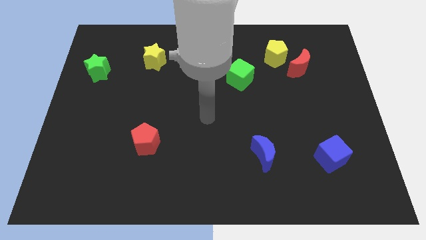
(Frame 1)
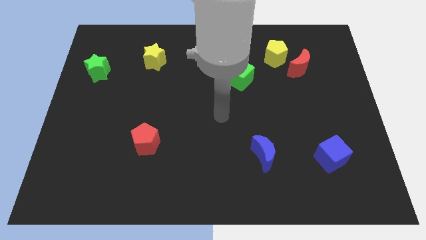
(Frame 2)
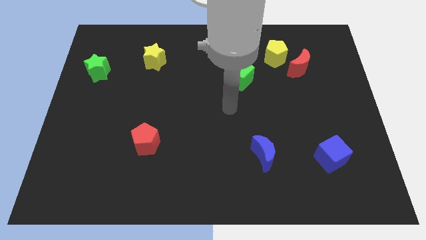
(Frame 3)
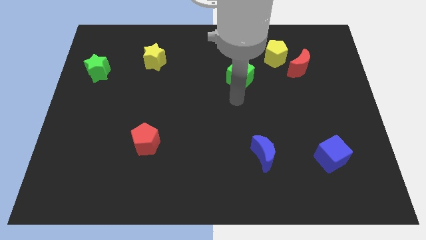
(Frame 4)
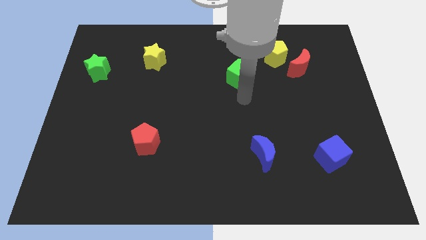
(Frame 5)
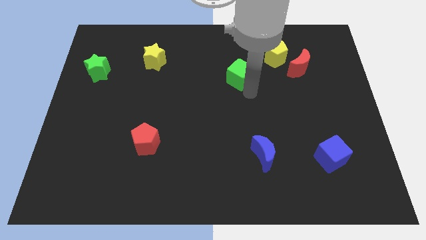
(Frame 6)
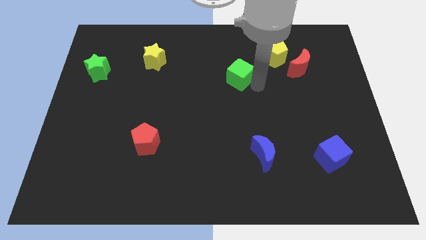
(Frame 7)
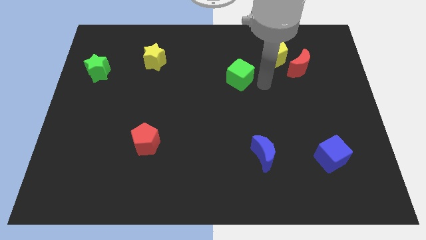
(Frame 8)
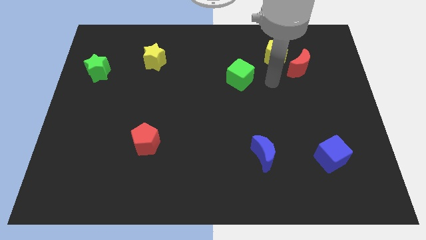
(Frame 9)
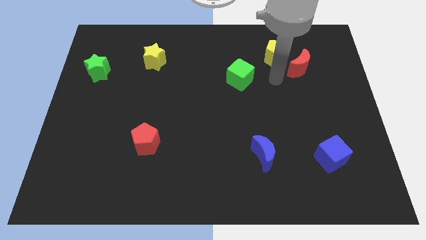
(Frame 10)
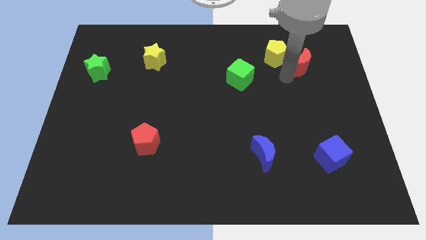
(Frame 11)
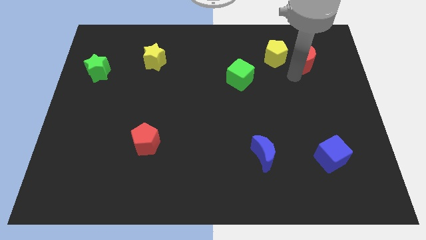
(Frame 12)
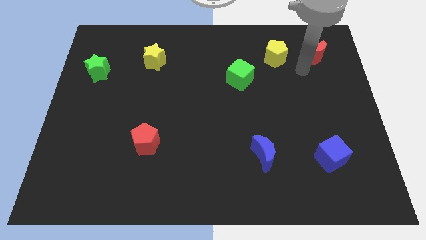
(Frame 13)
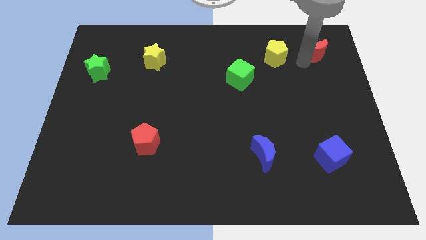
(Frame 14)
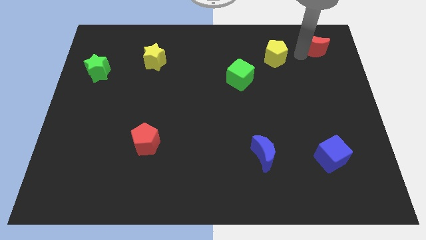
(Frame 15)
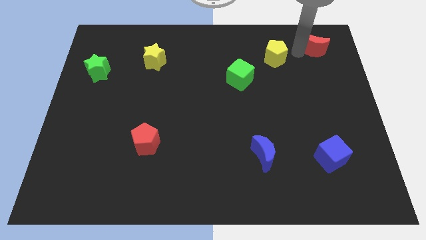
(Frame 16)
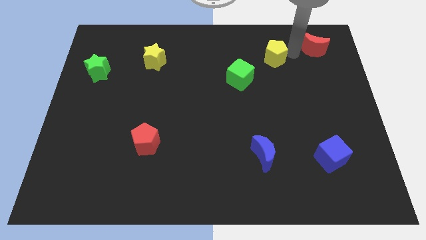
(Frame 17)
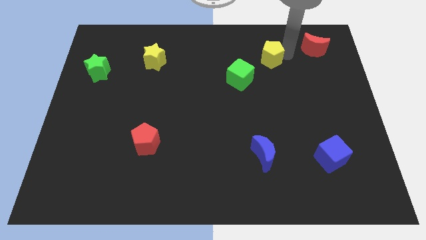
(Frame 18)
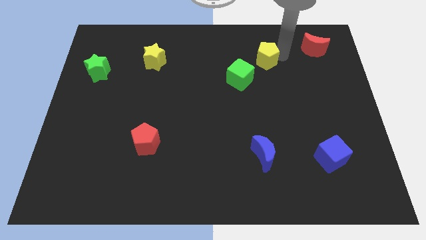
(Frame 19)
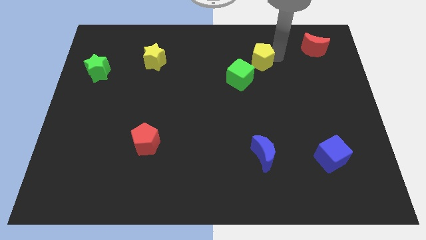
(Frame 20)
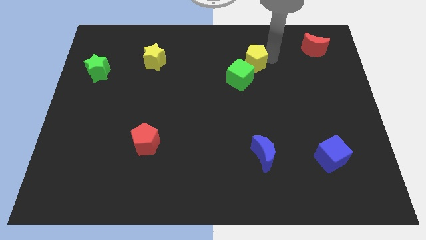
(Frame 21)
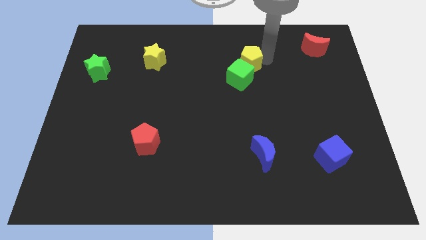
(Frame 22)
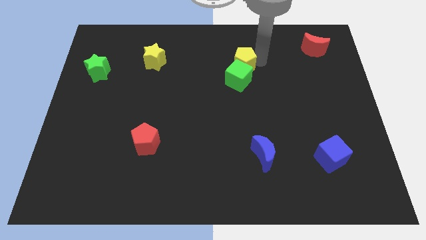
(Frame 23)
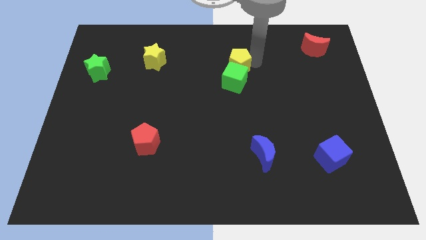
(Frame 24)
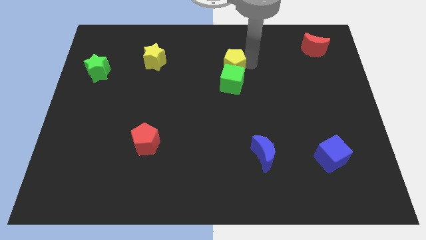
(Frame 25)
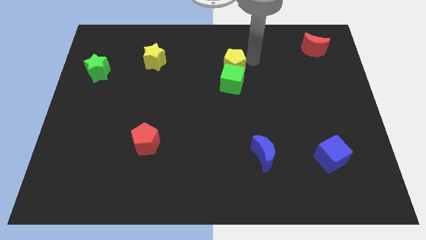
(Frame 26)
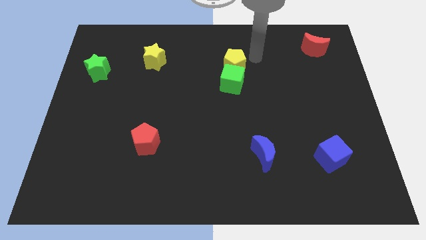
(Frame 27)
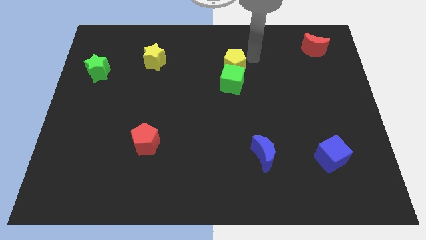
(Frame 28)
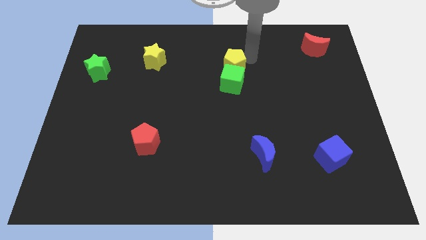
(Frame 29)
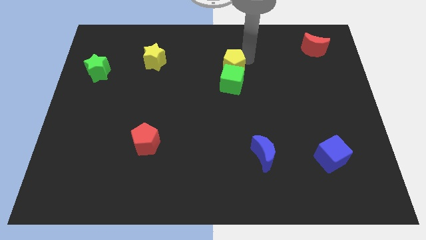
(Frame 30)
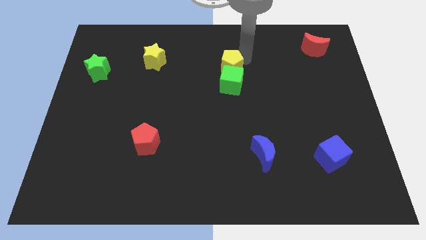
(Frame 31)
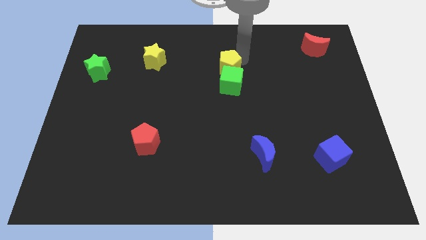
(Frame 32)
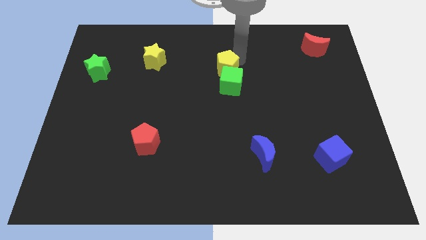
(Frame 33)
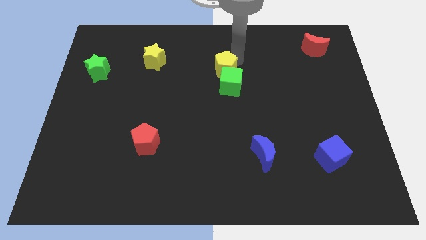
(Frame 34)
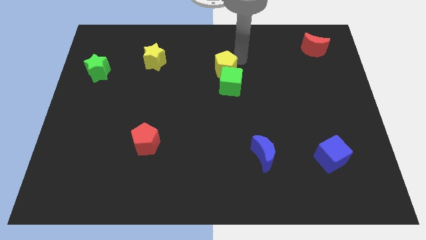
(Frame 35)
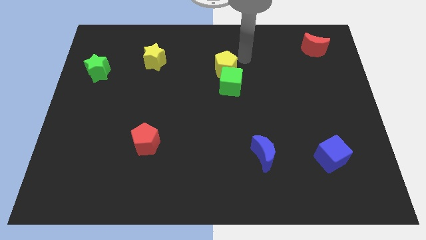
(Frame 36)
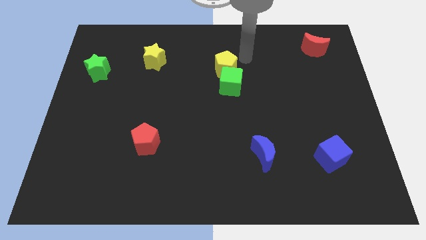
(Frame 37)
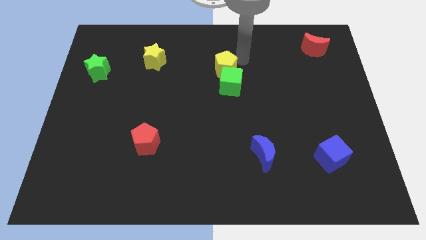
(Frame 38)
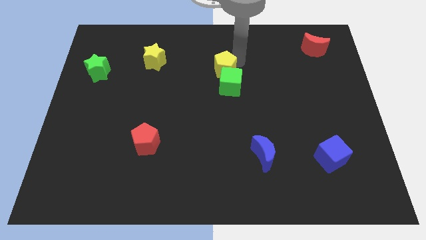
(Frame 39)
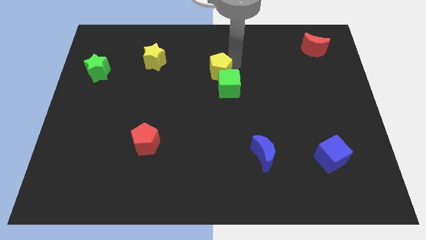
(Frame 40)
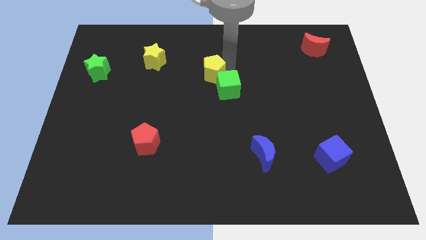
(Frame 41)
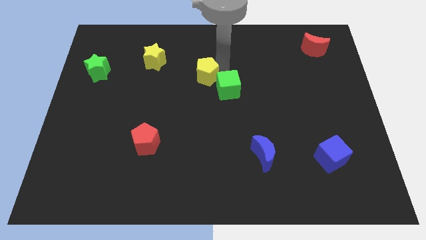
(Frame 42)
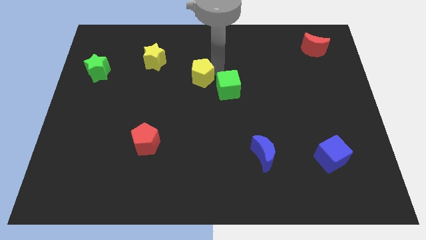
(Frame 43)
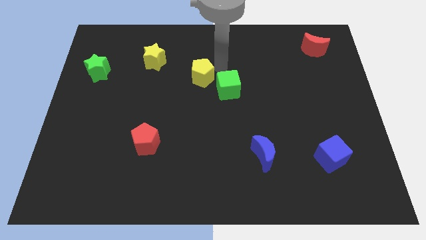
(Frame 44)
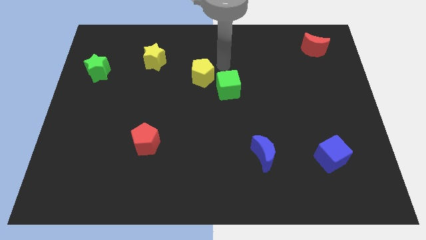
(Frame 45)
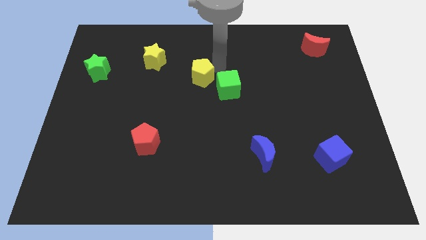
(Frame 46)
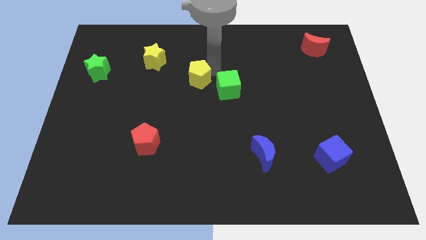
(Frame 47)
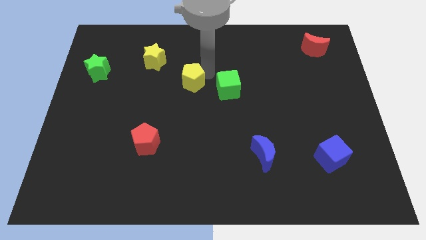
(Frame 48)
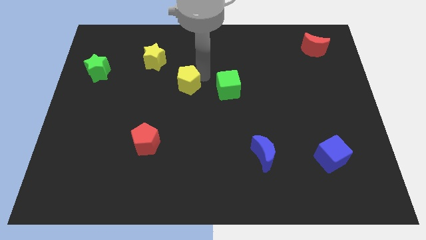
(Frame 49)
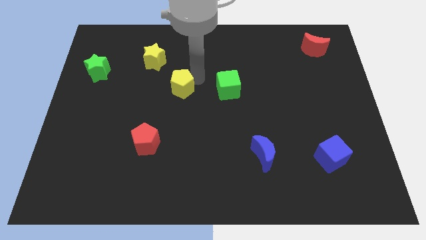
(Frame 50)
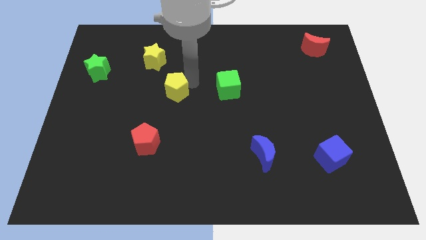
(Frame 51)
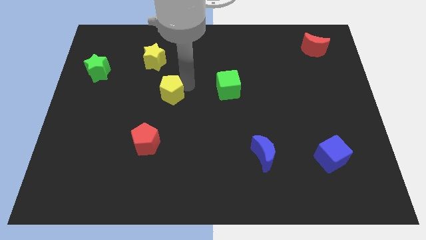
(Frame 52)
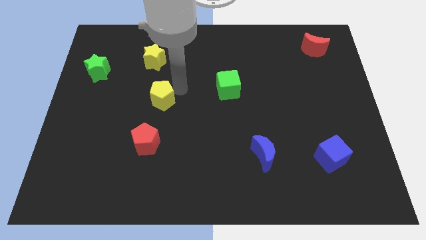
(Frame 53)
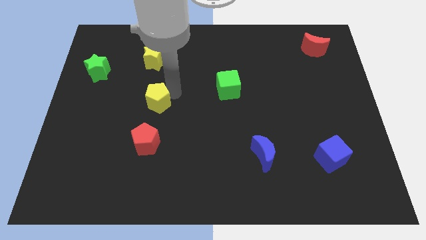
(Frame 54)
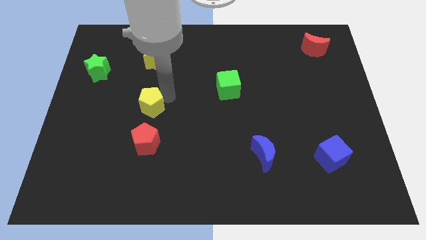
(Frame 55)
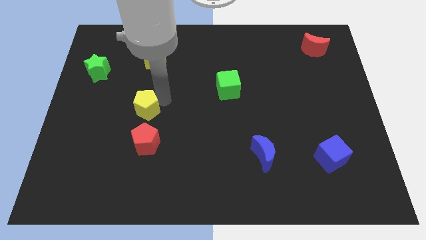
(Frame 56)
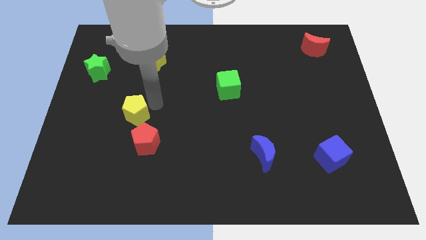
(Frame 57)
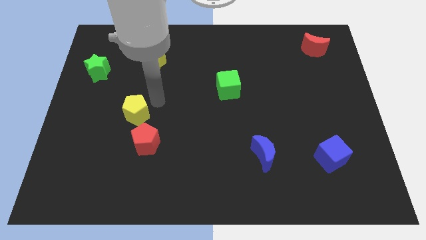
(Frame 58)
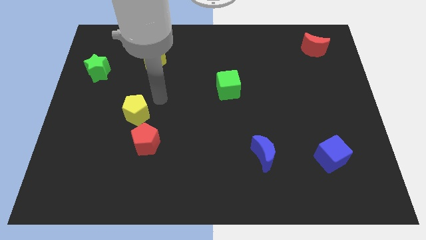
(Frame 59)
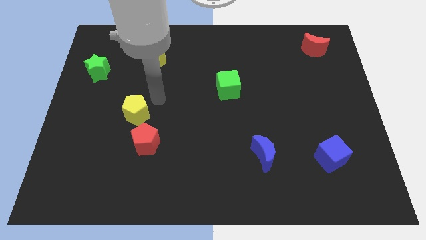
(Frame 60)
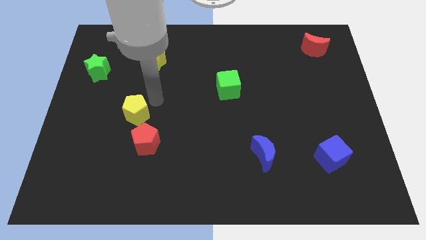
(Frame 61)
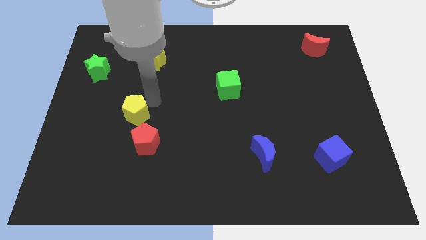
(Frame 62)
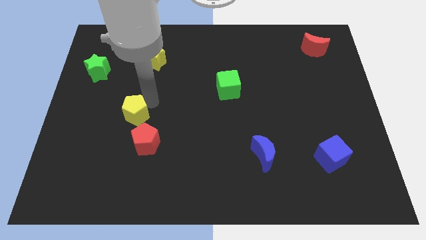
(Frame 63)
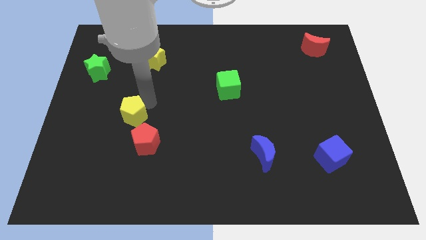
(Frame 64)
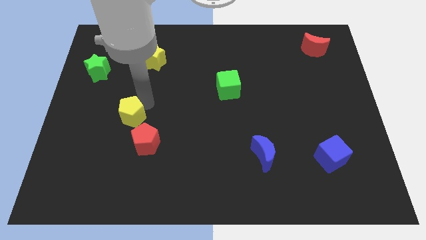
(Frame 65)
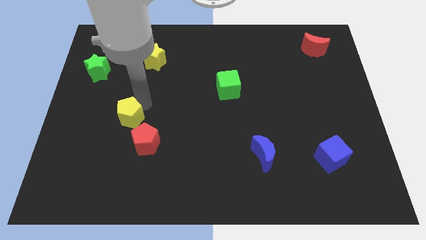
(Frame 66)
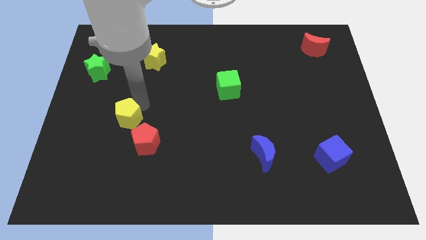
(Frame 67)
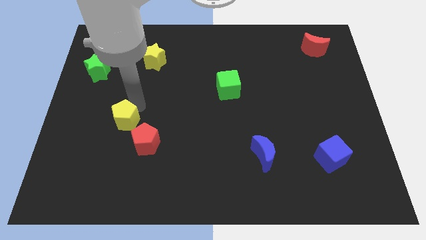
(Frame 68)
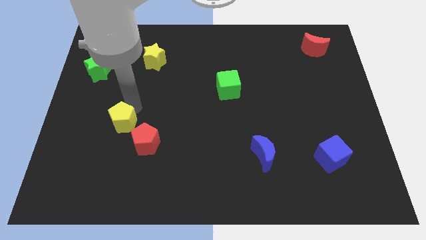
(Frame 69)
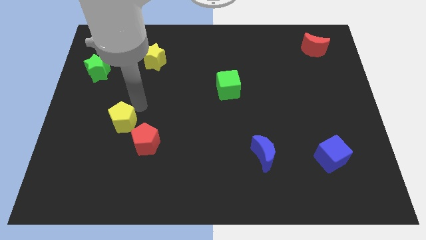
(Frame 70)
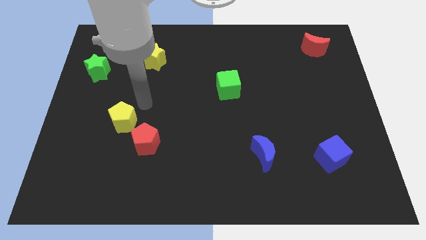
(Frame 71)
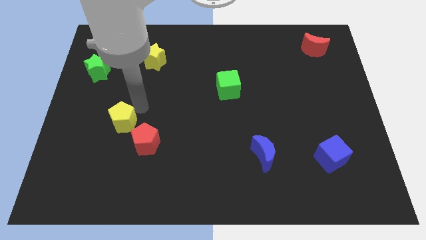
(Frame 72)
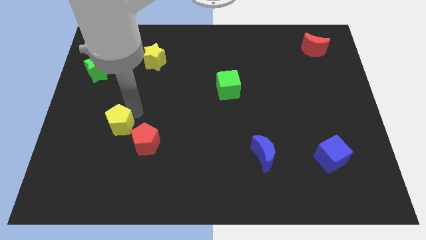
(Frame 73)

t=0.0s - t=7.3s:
put the yellow pentagon left of the red pentagon
